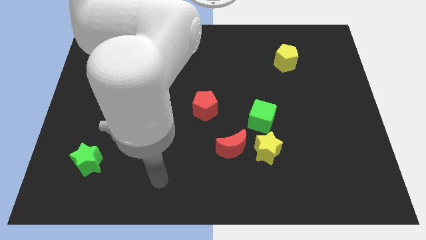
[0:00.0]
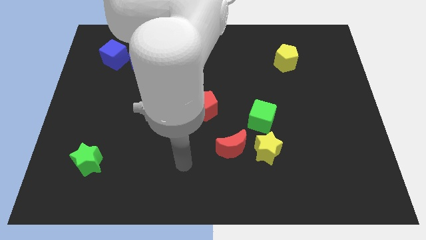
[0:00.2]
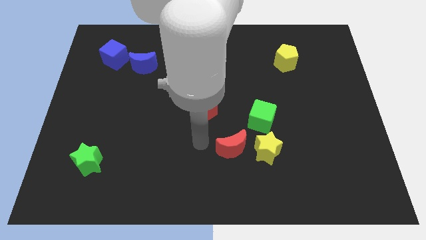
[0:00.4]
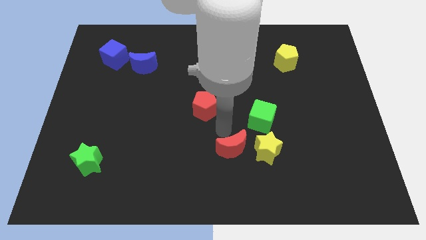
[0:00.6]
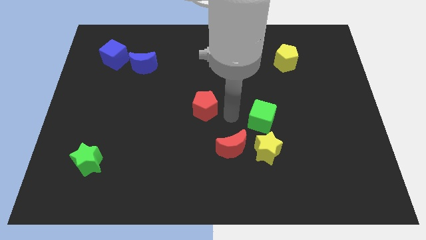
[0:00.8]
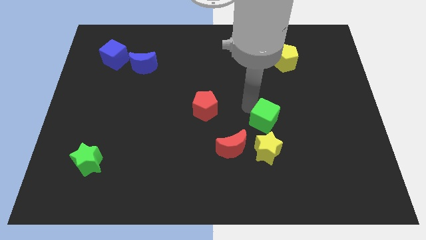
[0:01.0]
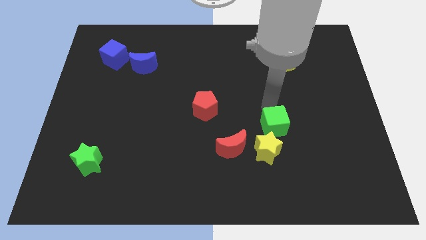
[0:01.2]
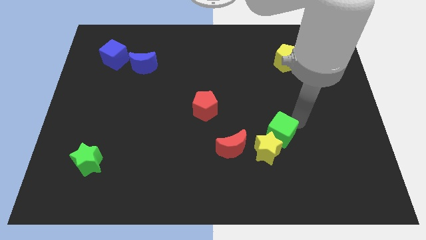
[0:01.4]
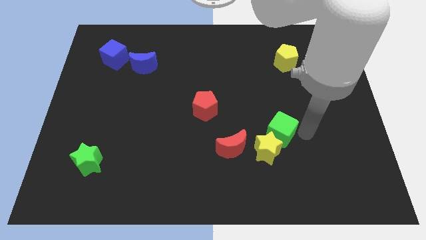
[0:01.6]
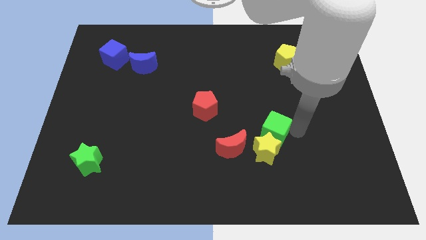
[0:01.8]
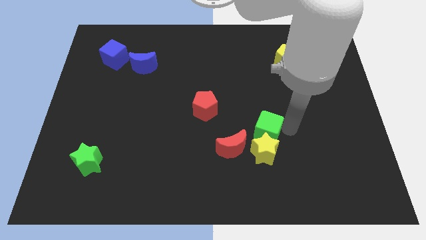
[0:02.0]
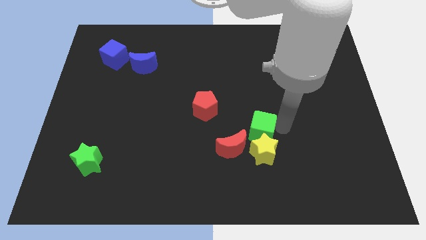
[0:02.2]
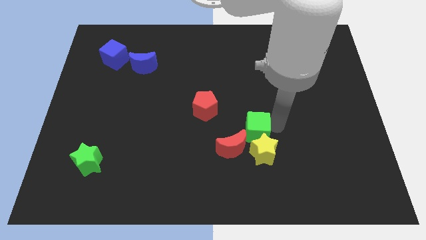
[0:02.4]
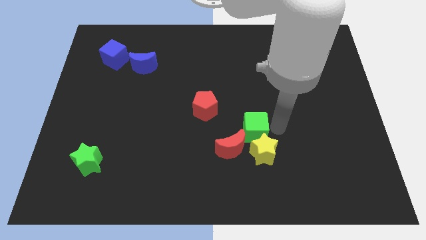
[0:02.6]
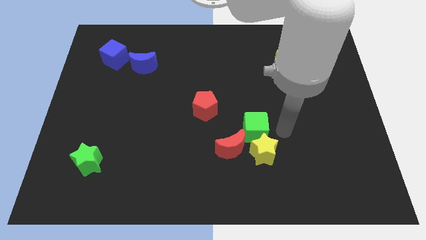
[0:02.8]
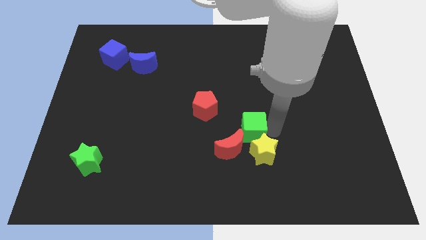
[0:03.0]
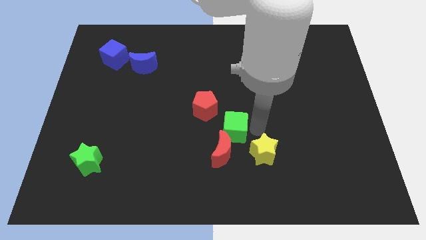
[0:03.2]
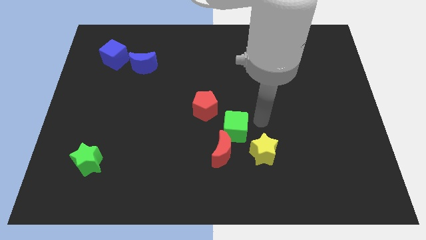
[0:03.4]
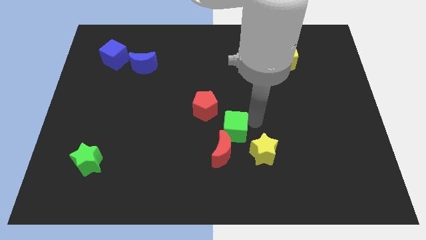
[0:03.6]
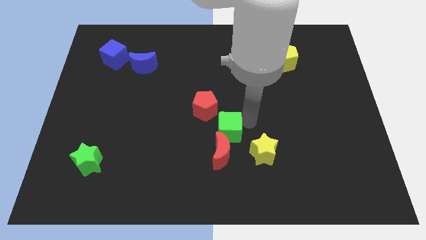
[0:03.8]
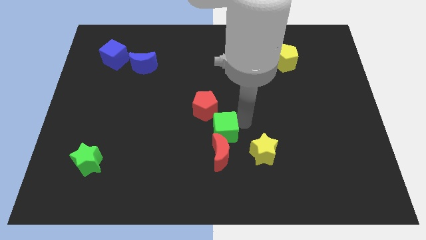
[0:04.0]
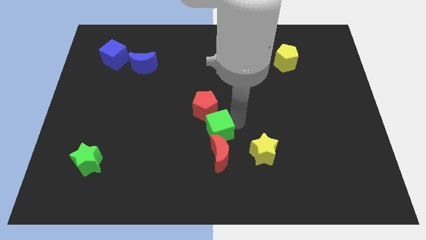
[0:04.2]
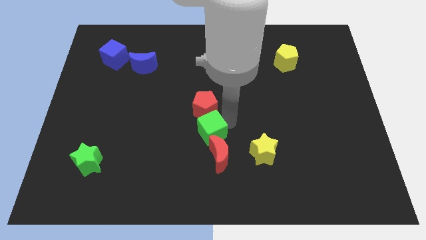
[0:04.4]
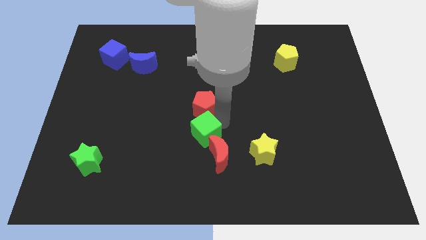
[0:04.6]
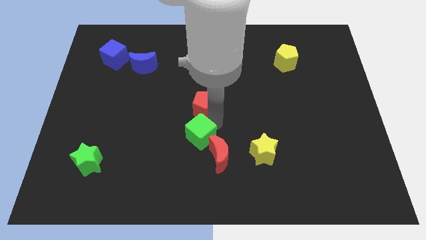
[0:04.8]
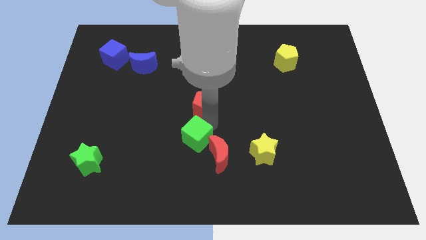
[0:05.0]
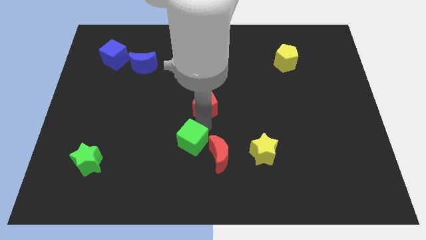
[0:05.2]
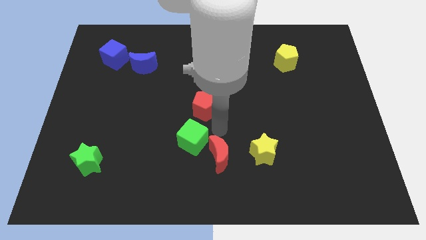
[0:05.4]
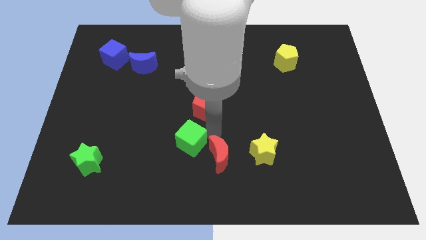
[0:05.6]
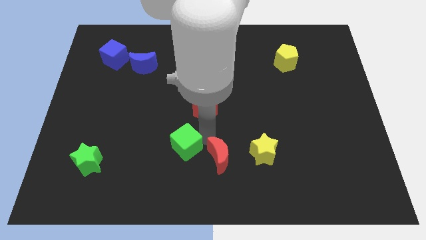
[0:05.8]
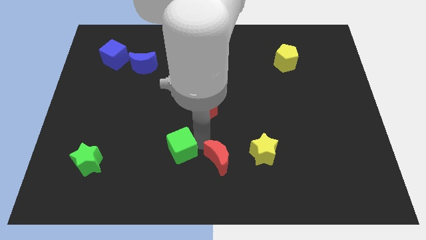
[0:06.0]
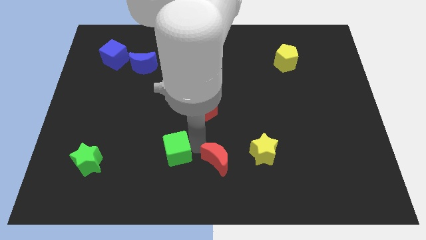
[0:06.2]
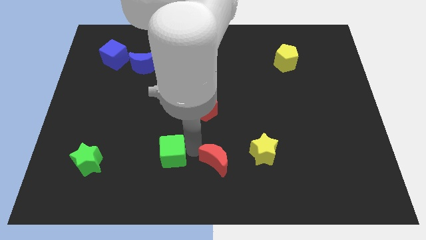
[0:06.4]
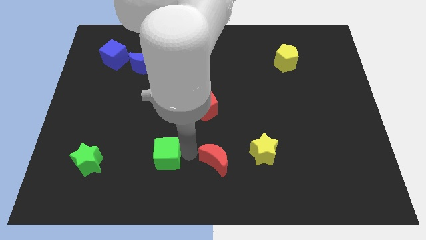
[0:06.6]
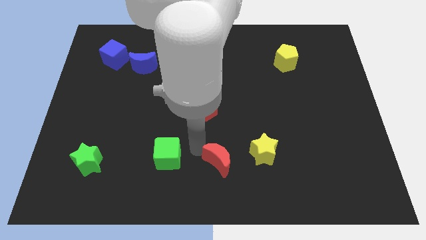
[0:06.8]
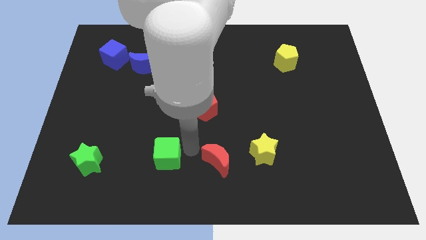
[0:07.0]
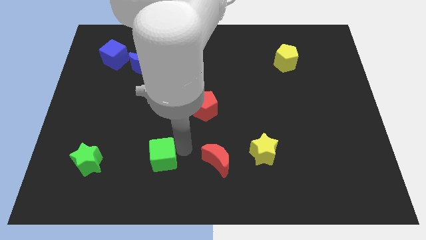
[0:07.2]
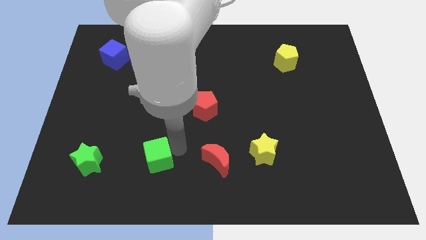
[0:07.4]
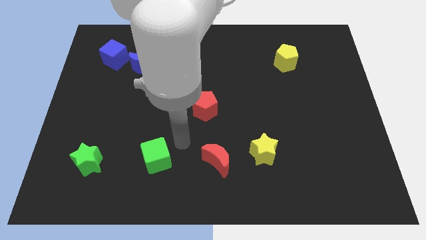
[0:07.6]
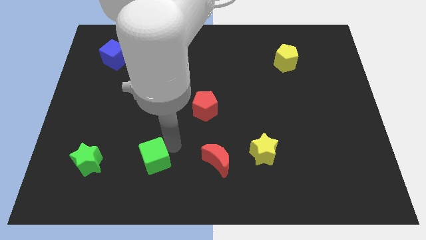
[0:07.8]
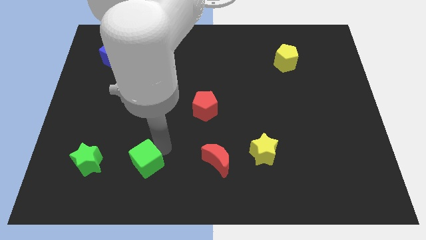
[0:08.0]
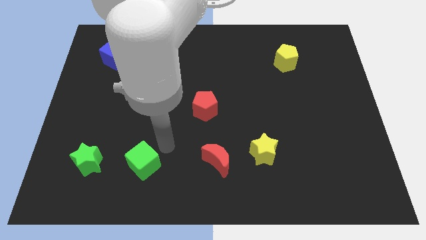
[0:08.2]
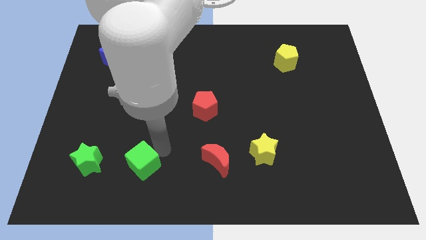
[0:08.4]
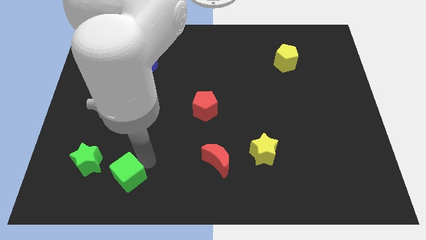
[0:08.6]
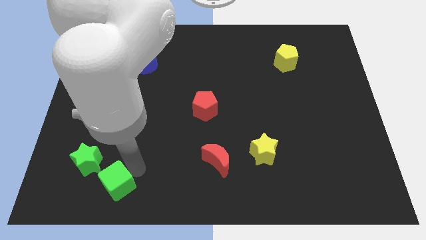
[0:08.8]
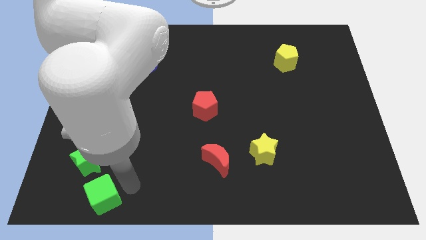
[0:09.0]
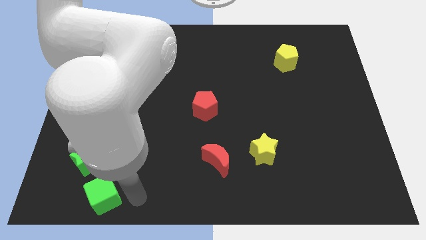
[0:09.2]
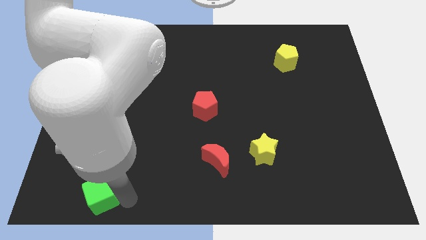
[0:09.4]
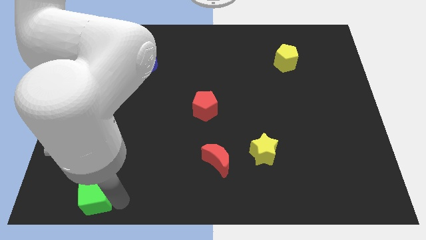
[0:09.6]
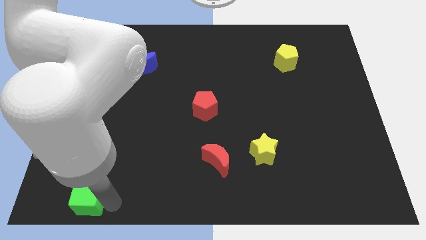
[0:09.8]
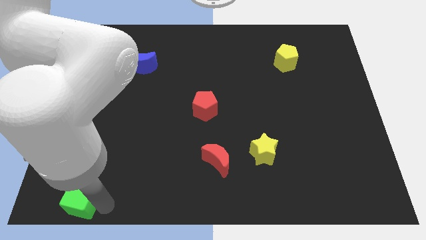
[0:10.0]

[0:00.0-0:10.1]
slide the green cube to the bottom left

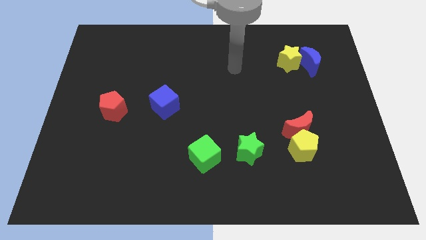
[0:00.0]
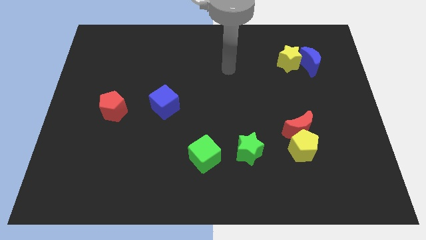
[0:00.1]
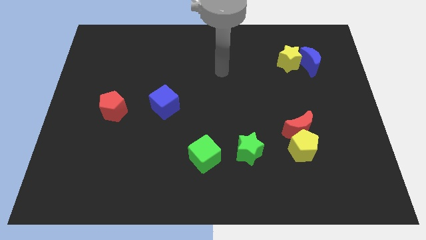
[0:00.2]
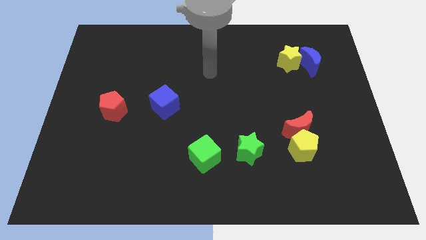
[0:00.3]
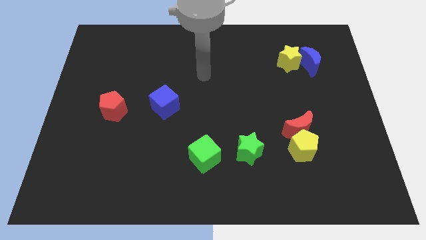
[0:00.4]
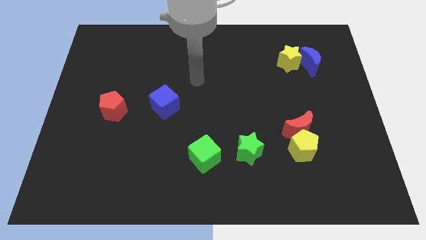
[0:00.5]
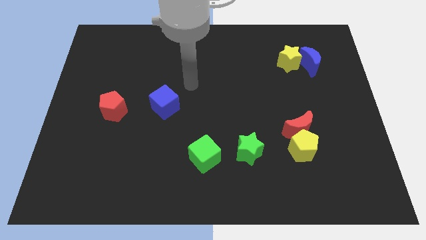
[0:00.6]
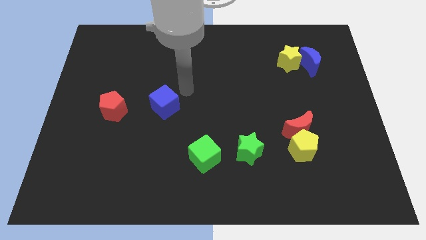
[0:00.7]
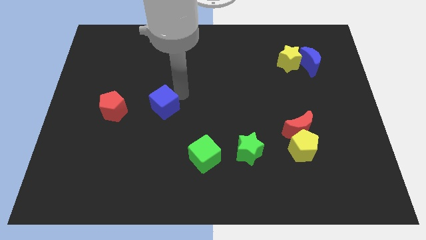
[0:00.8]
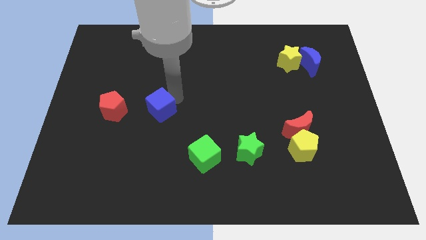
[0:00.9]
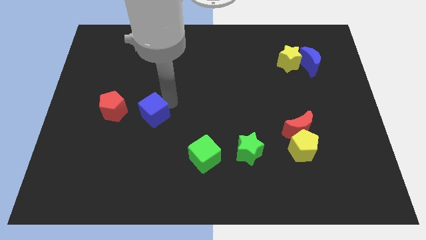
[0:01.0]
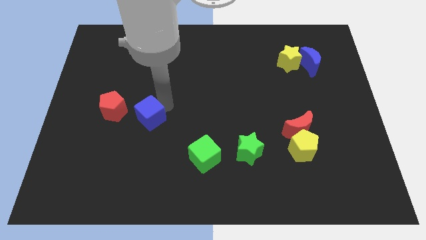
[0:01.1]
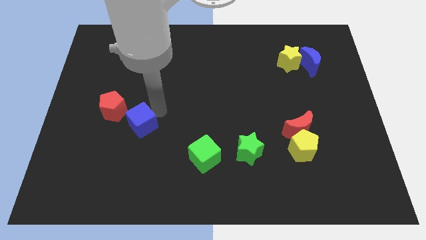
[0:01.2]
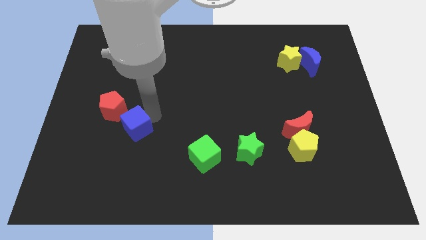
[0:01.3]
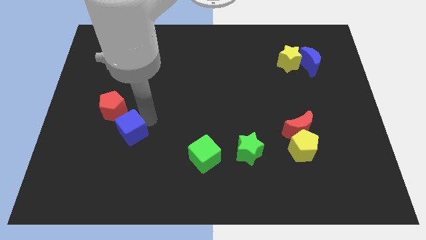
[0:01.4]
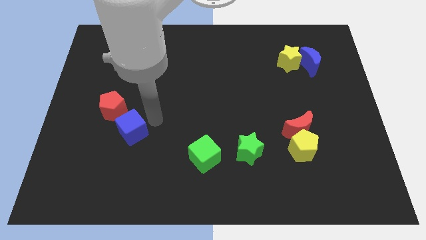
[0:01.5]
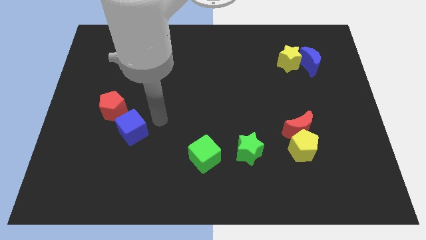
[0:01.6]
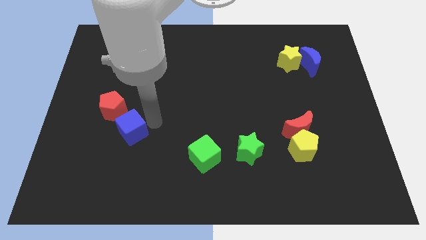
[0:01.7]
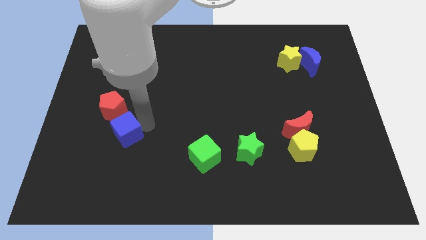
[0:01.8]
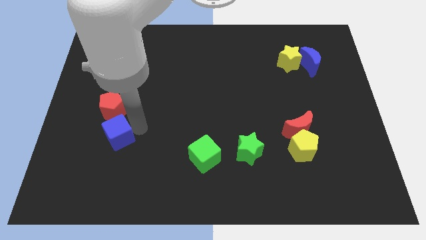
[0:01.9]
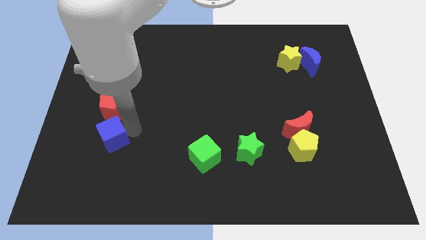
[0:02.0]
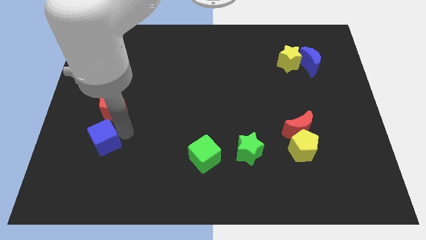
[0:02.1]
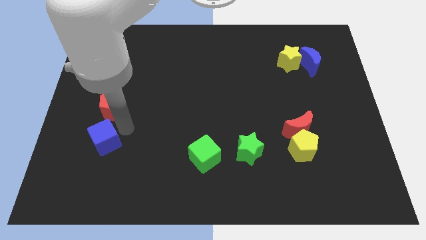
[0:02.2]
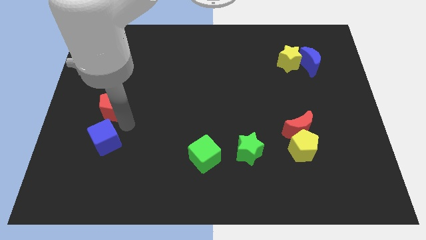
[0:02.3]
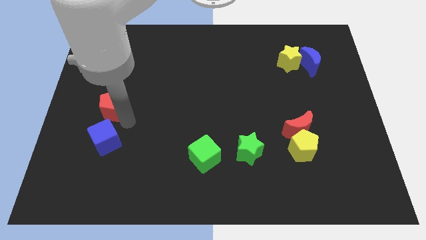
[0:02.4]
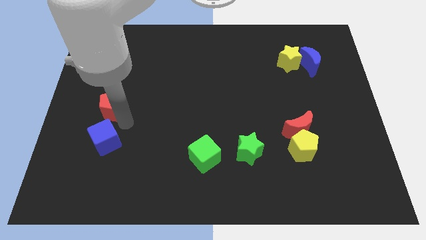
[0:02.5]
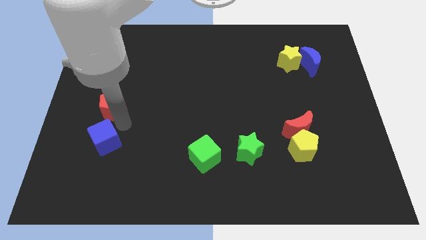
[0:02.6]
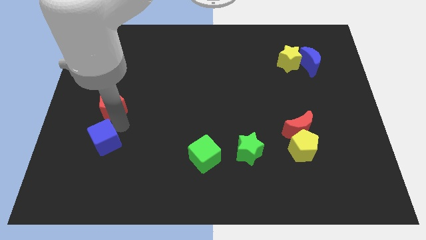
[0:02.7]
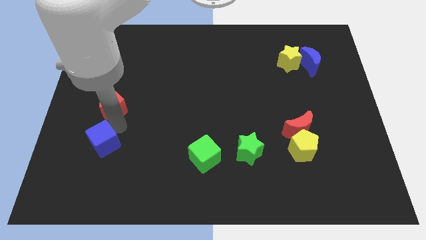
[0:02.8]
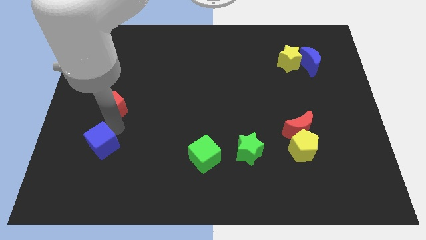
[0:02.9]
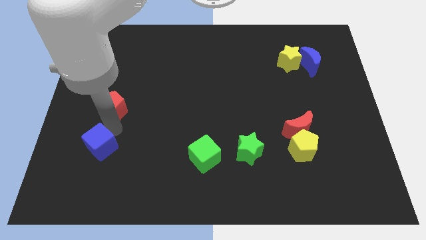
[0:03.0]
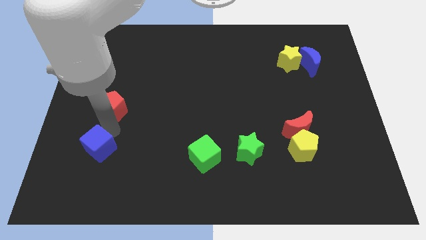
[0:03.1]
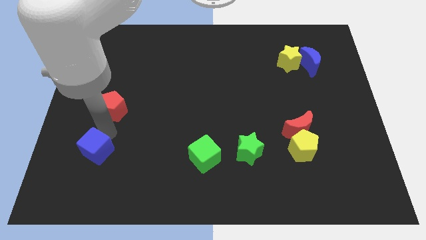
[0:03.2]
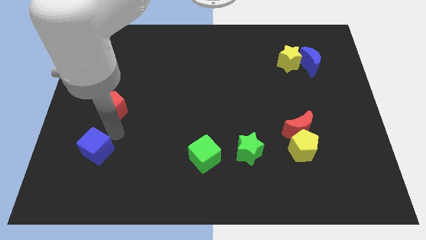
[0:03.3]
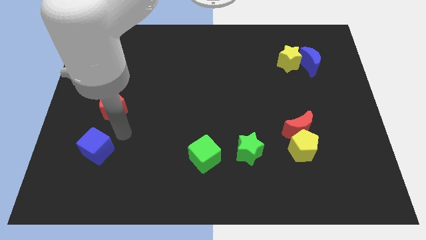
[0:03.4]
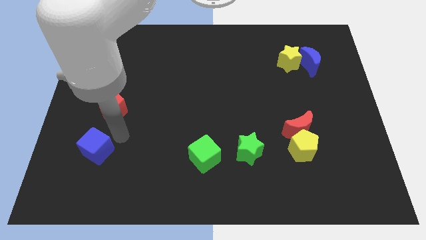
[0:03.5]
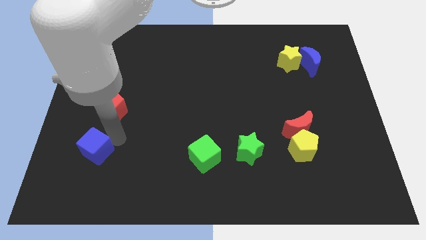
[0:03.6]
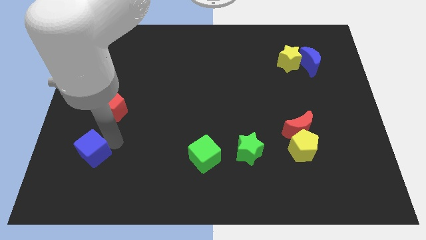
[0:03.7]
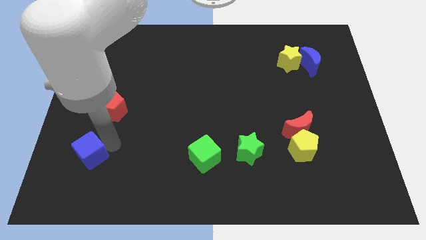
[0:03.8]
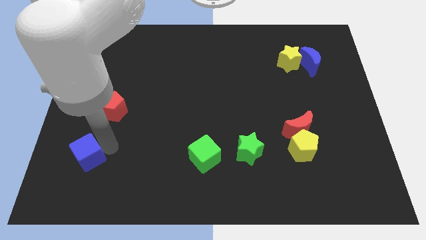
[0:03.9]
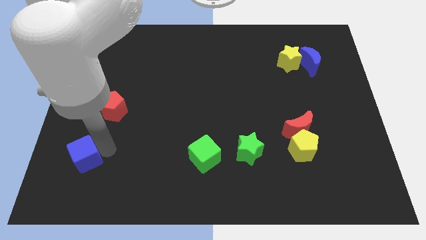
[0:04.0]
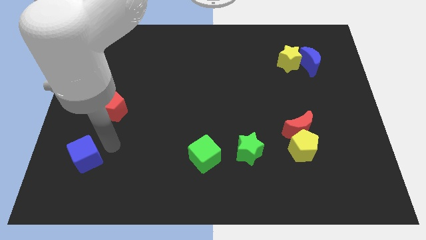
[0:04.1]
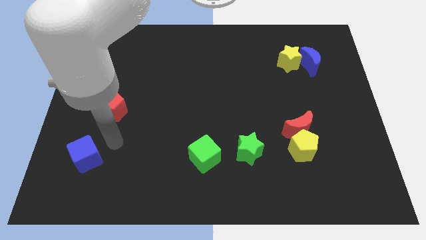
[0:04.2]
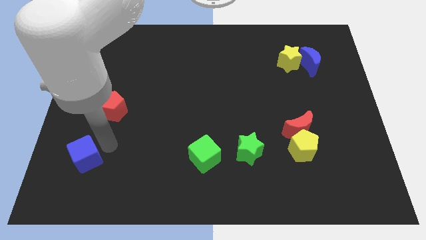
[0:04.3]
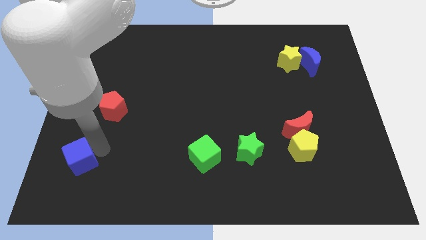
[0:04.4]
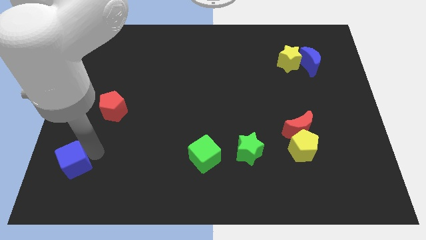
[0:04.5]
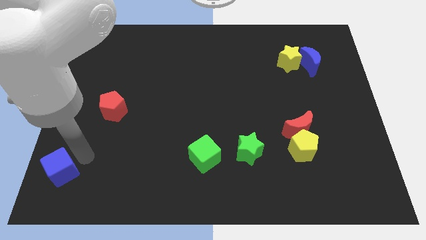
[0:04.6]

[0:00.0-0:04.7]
slide the blue cube to the bottom left
